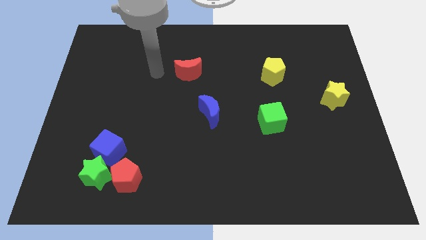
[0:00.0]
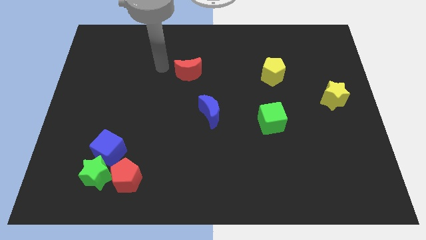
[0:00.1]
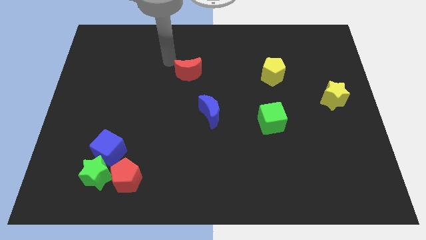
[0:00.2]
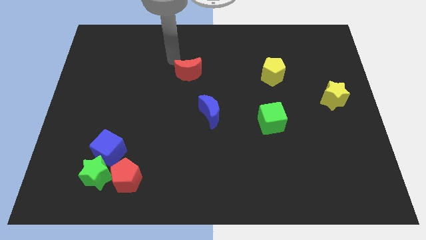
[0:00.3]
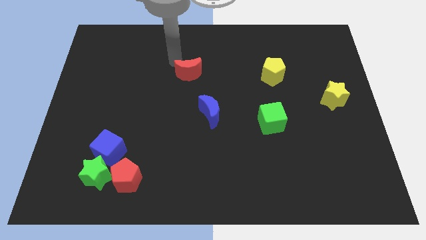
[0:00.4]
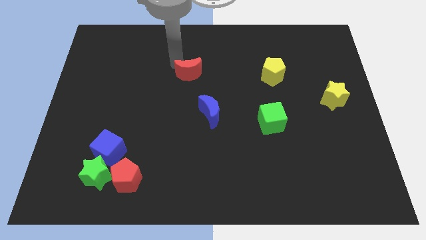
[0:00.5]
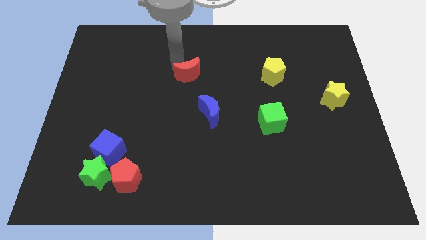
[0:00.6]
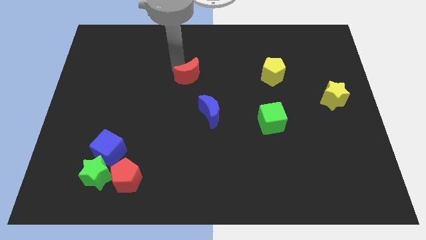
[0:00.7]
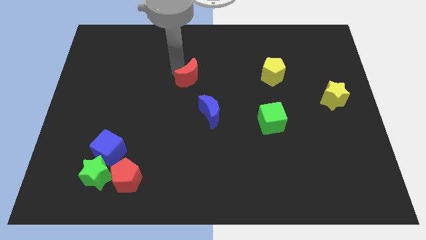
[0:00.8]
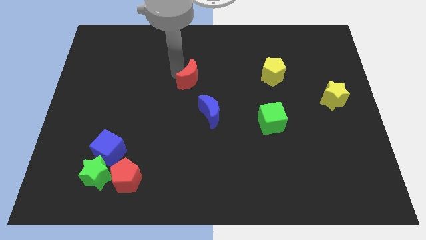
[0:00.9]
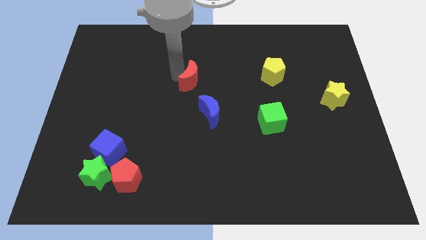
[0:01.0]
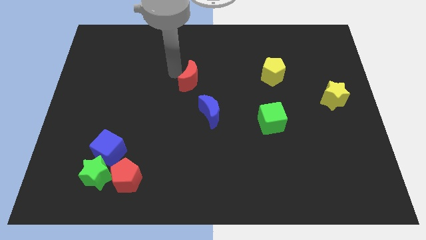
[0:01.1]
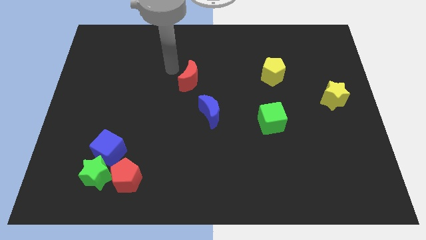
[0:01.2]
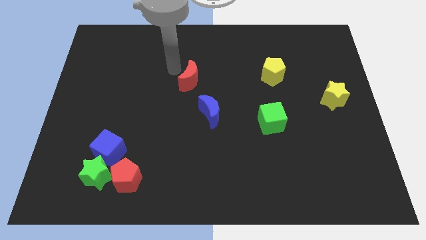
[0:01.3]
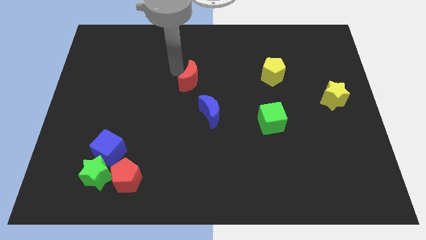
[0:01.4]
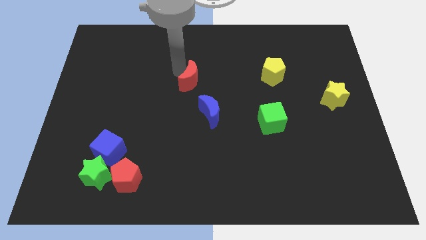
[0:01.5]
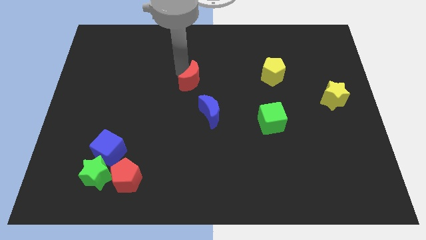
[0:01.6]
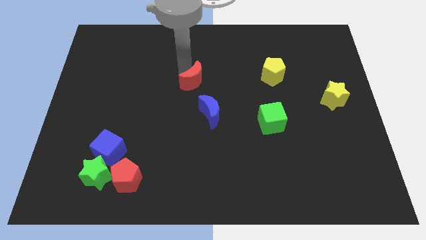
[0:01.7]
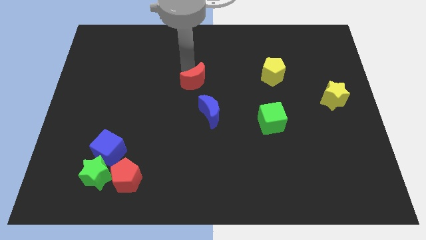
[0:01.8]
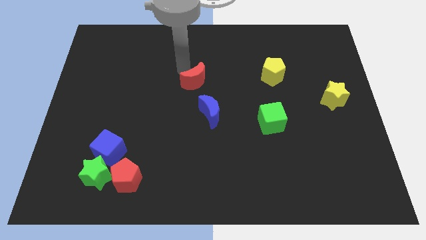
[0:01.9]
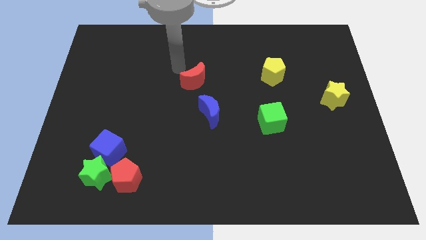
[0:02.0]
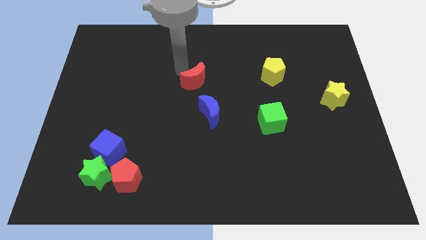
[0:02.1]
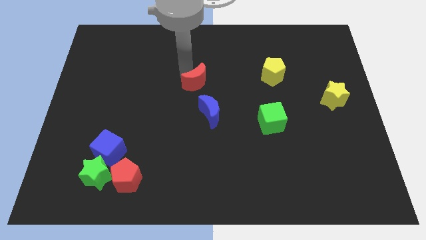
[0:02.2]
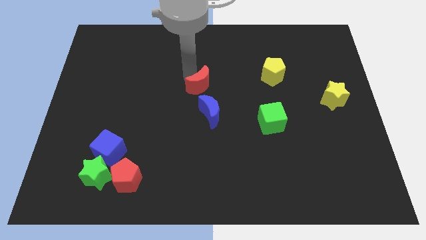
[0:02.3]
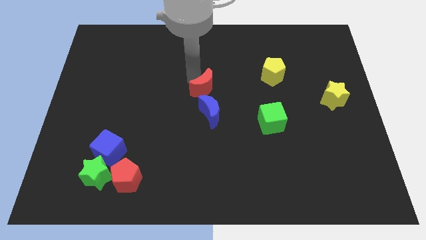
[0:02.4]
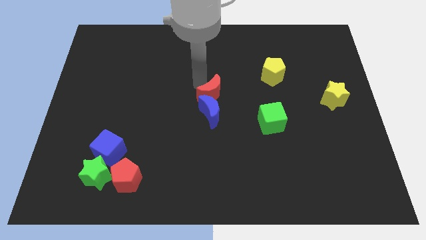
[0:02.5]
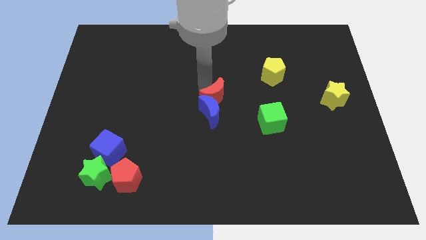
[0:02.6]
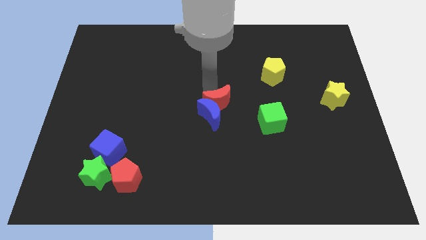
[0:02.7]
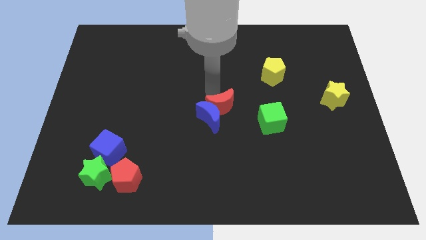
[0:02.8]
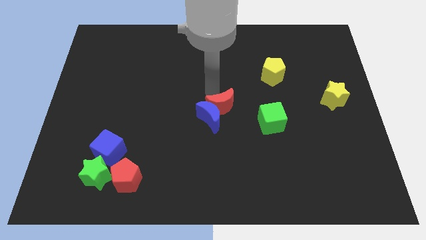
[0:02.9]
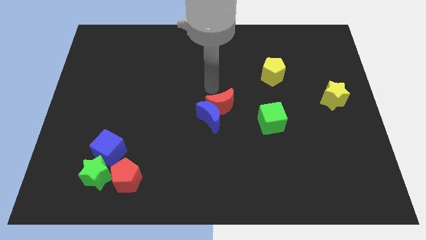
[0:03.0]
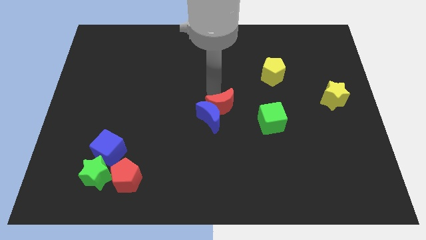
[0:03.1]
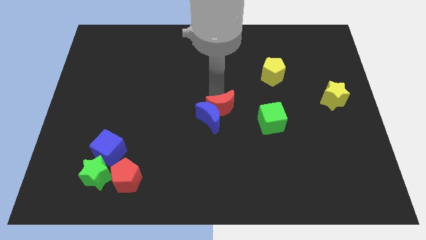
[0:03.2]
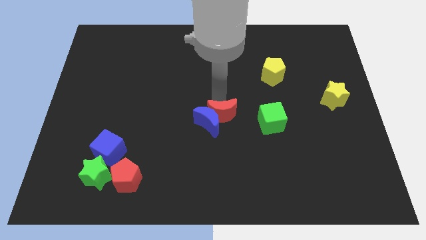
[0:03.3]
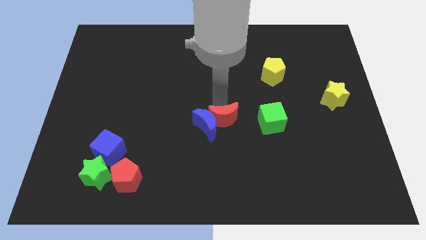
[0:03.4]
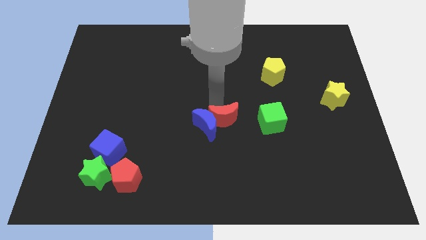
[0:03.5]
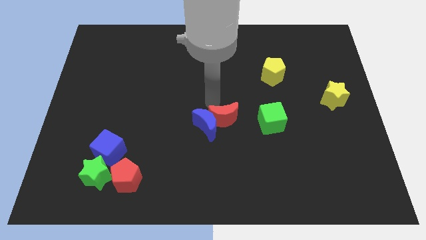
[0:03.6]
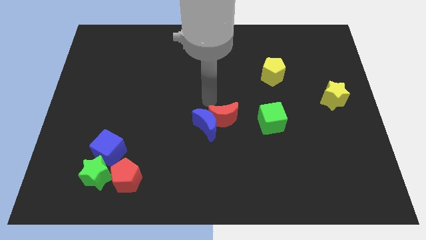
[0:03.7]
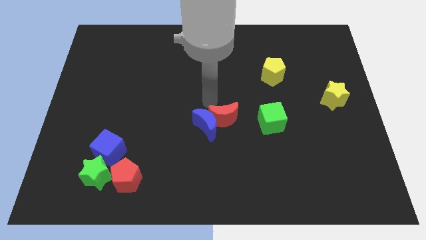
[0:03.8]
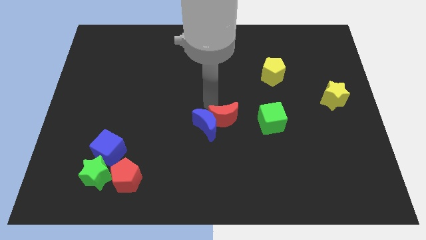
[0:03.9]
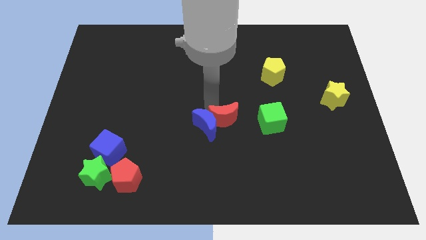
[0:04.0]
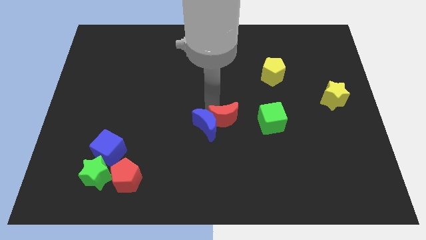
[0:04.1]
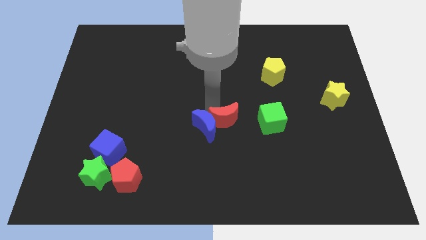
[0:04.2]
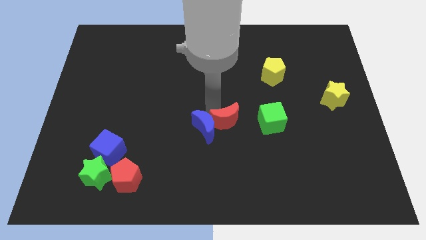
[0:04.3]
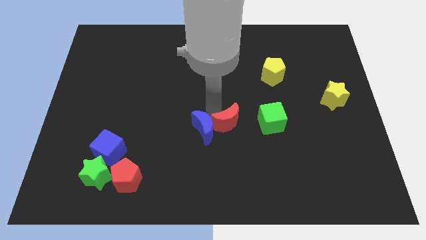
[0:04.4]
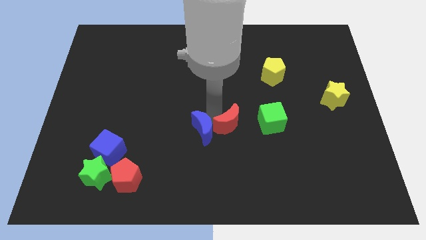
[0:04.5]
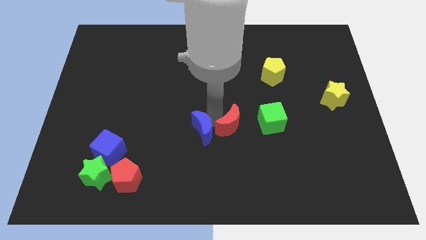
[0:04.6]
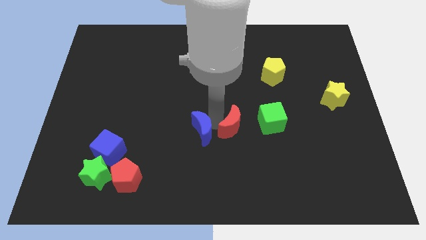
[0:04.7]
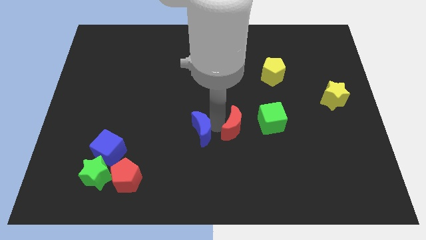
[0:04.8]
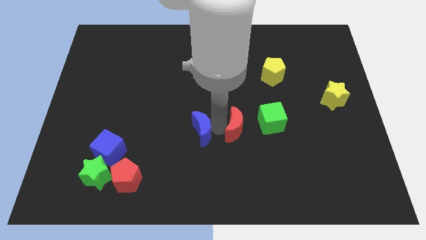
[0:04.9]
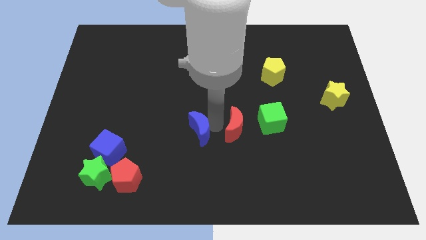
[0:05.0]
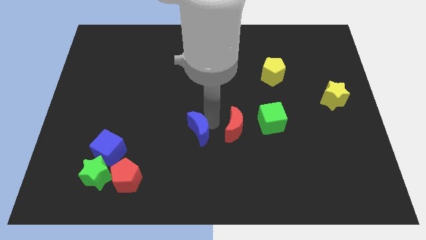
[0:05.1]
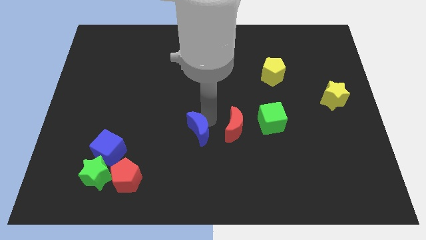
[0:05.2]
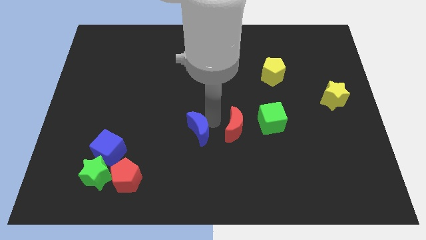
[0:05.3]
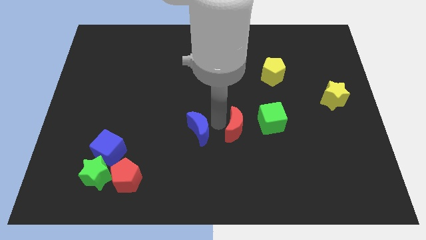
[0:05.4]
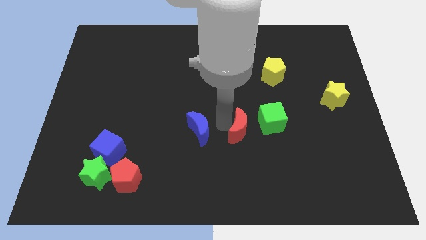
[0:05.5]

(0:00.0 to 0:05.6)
slide the red moon downwards and right

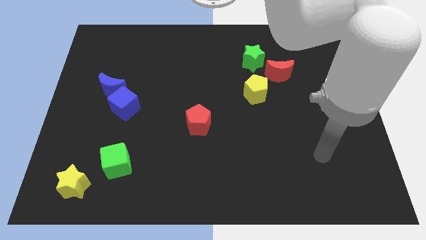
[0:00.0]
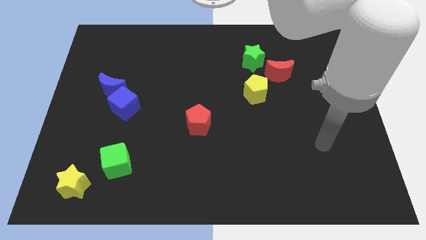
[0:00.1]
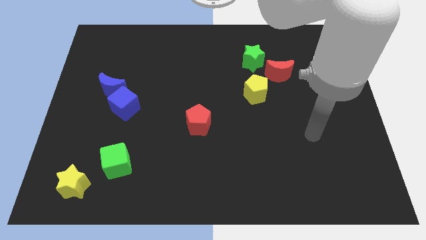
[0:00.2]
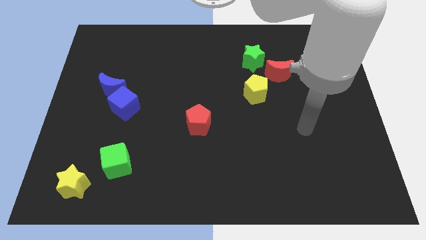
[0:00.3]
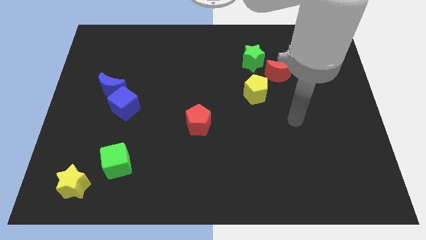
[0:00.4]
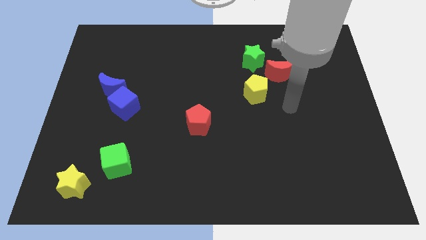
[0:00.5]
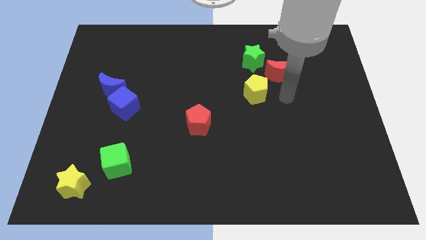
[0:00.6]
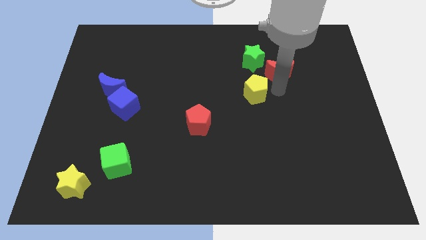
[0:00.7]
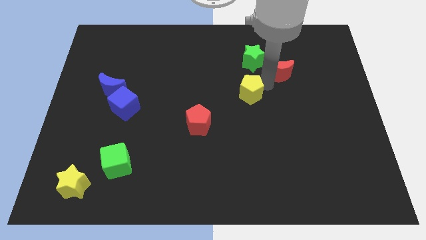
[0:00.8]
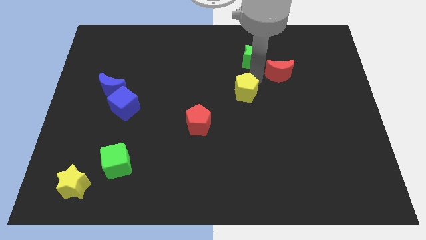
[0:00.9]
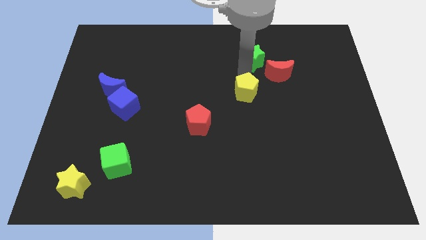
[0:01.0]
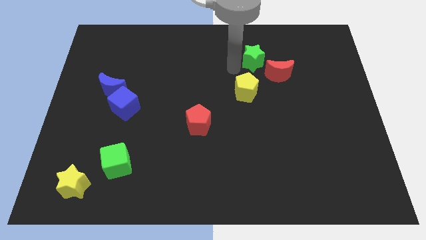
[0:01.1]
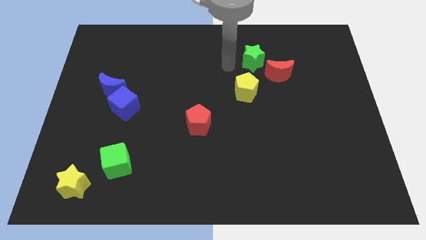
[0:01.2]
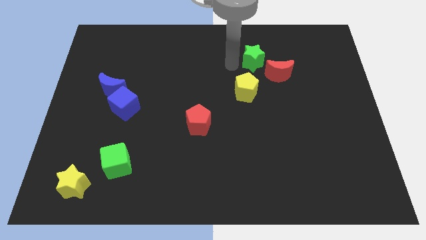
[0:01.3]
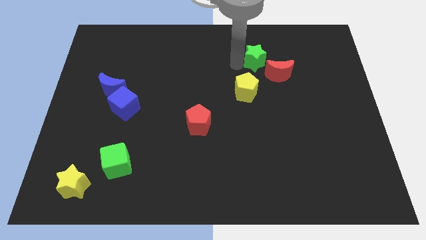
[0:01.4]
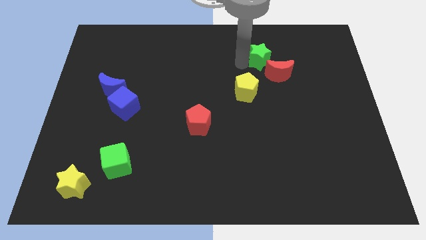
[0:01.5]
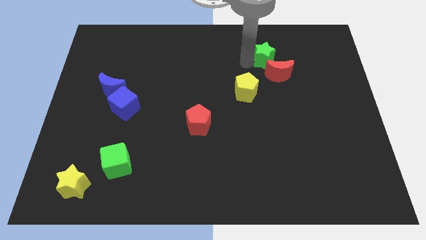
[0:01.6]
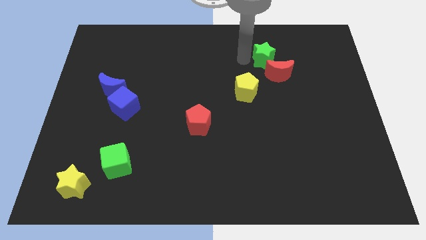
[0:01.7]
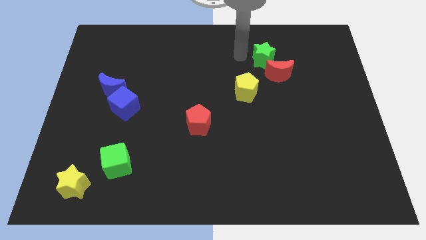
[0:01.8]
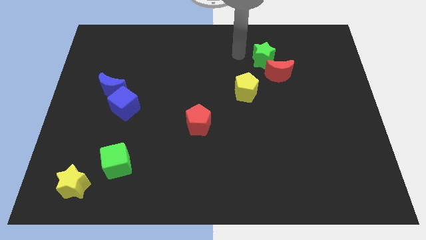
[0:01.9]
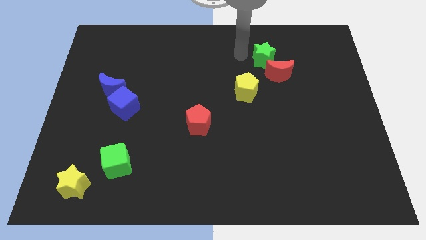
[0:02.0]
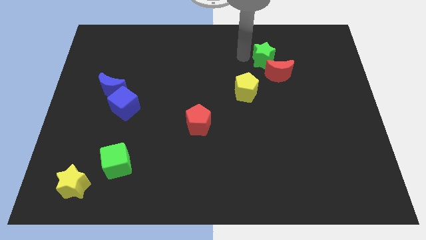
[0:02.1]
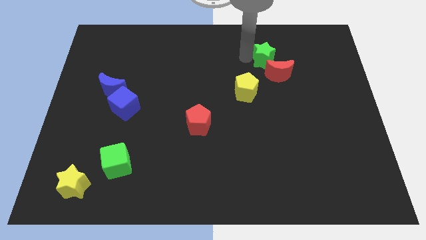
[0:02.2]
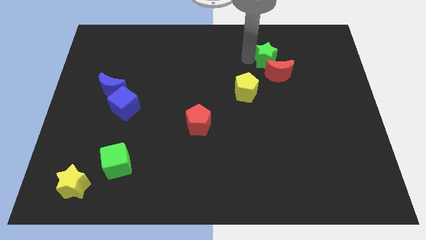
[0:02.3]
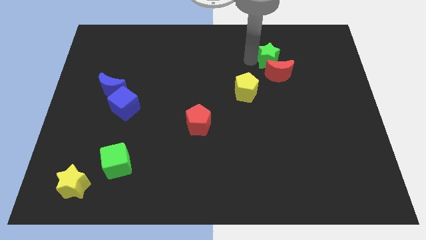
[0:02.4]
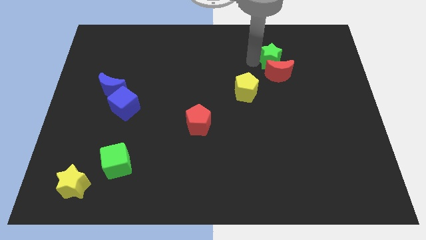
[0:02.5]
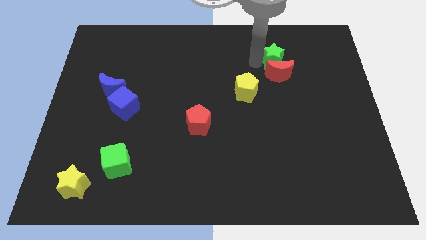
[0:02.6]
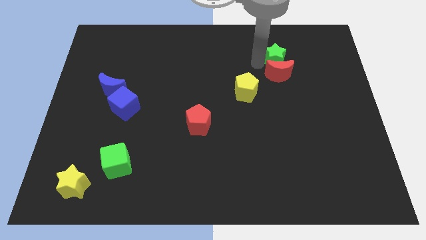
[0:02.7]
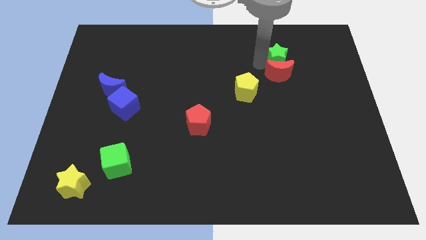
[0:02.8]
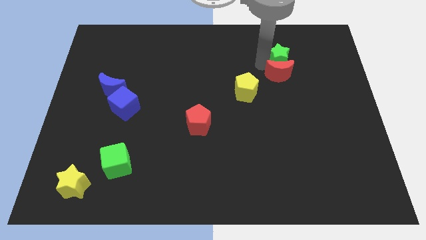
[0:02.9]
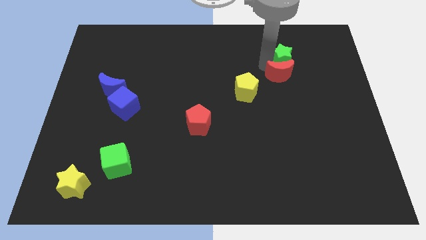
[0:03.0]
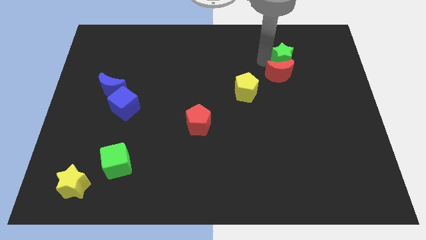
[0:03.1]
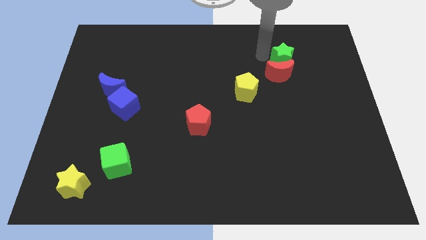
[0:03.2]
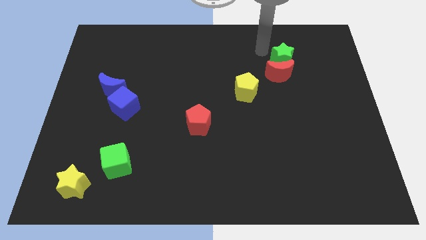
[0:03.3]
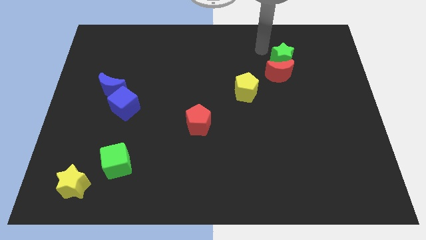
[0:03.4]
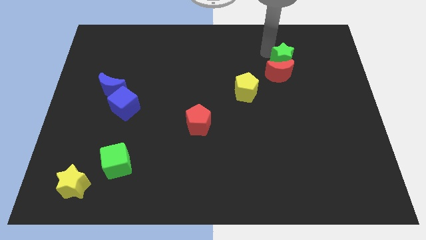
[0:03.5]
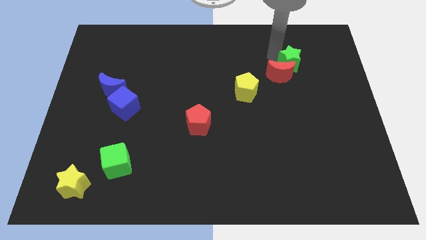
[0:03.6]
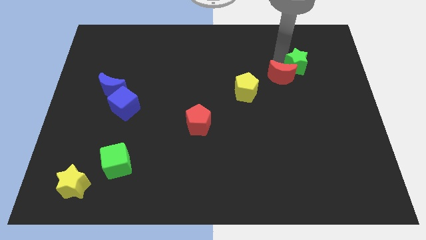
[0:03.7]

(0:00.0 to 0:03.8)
slightly move the green star down and to the right diagonally
